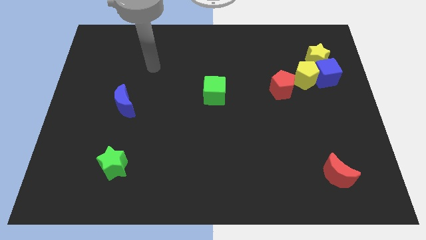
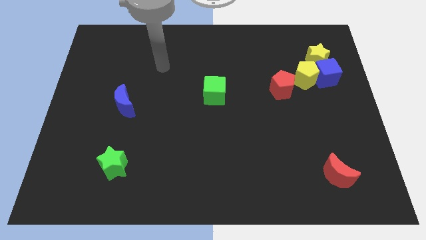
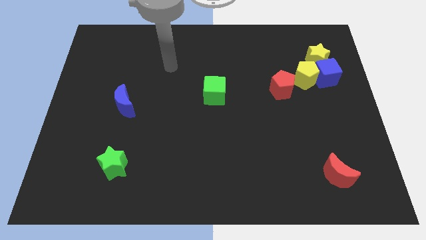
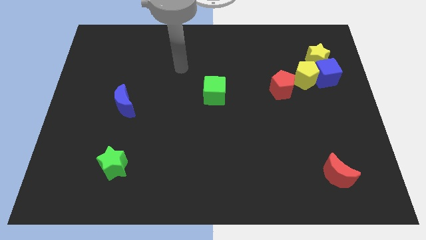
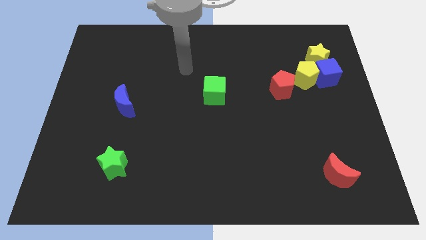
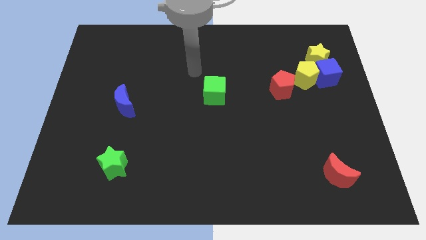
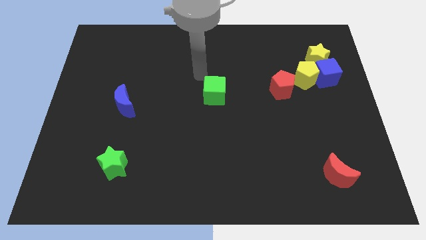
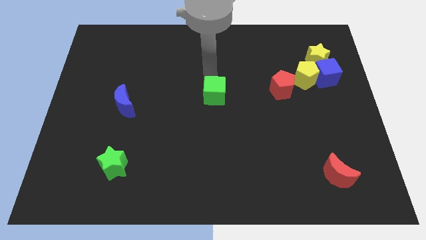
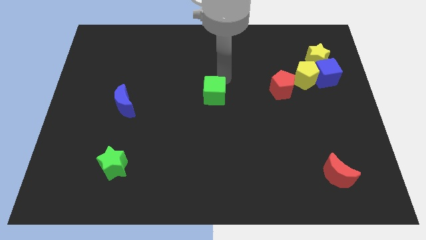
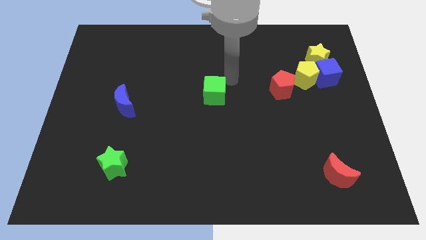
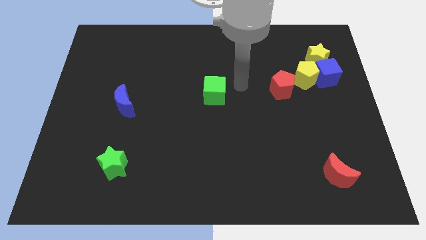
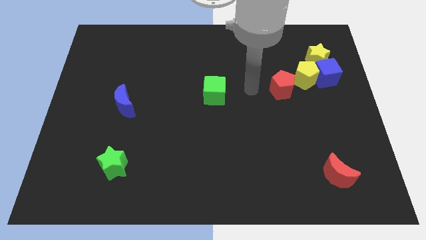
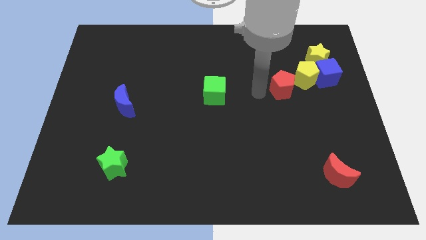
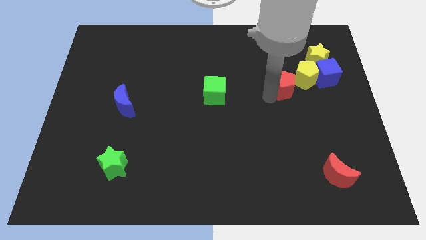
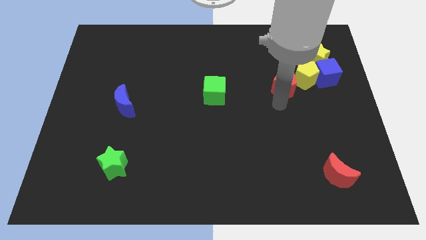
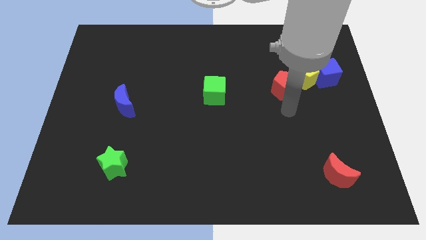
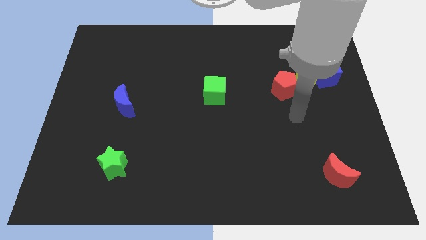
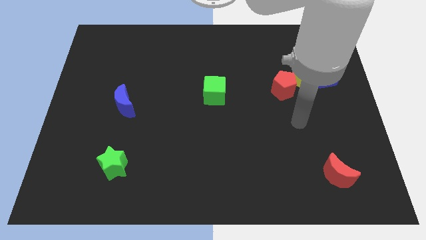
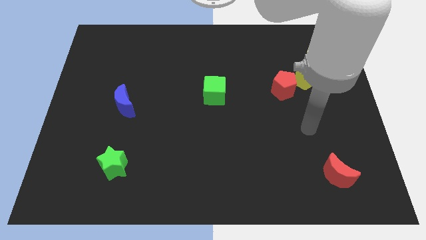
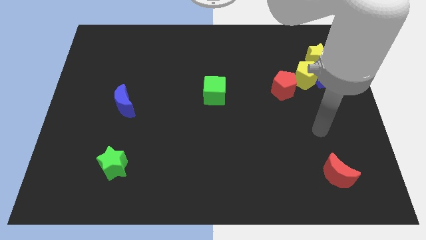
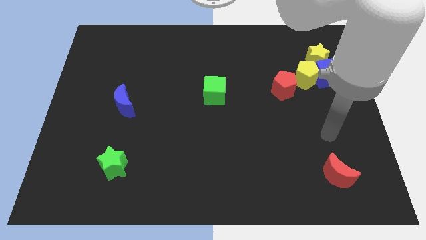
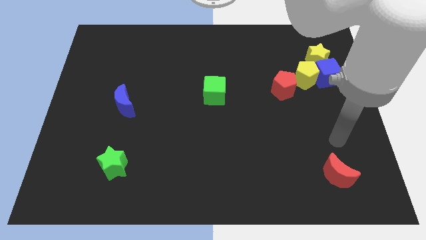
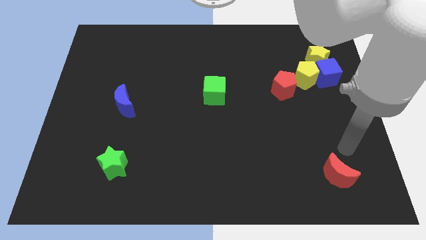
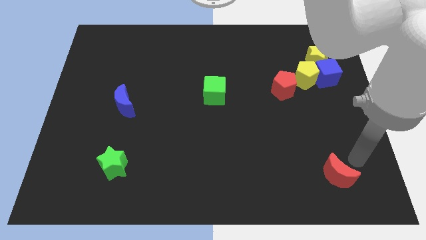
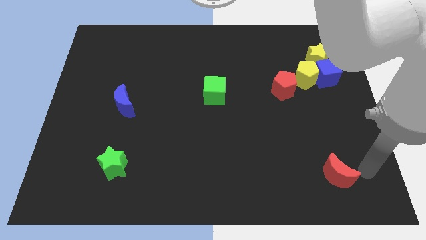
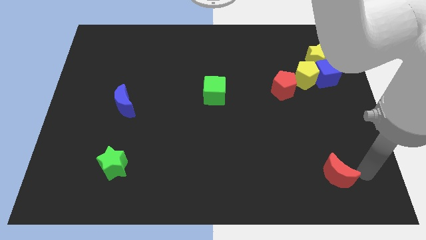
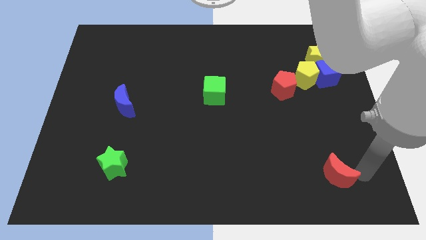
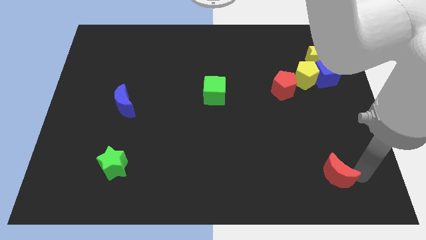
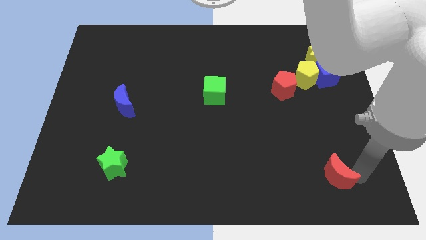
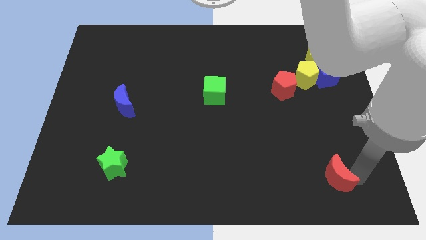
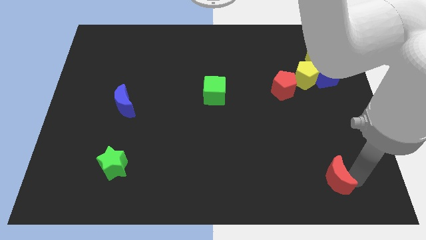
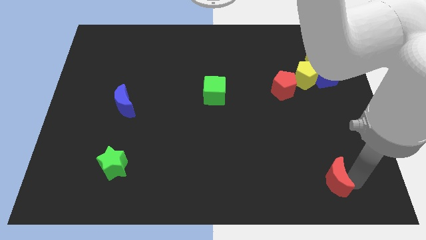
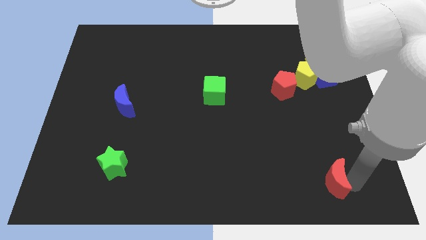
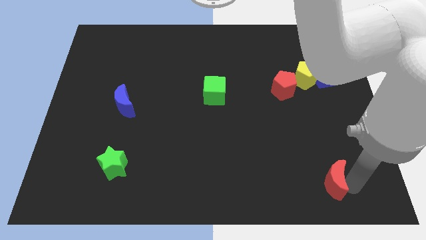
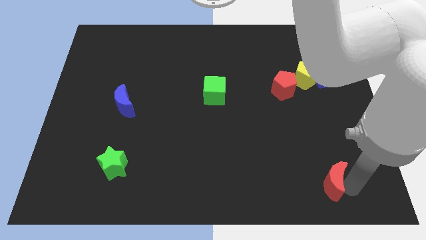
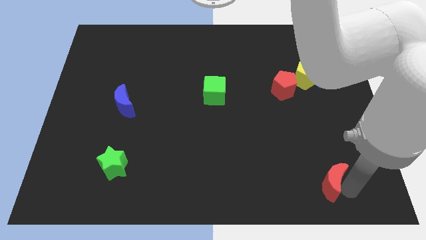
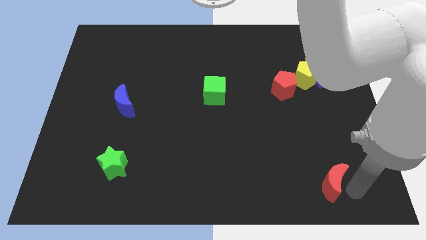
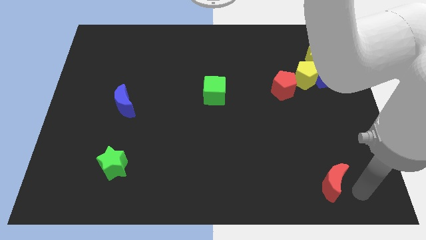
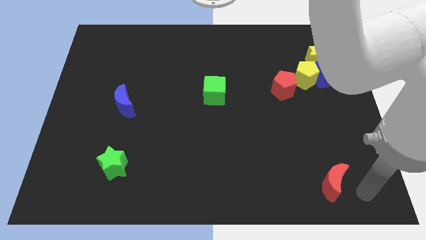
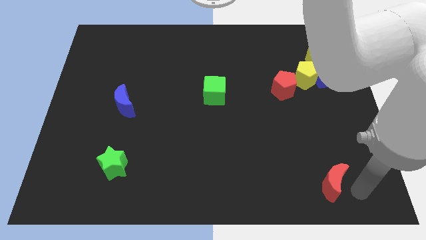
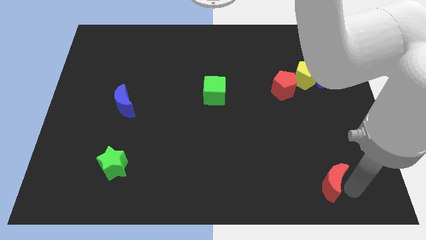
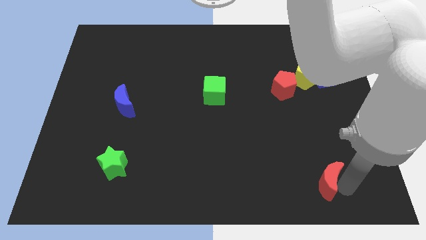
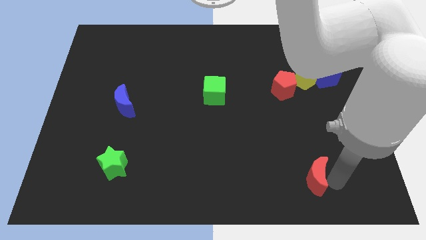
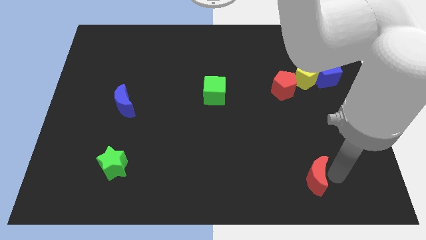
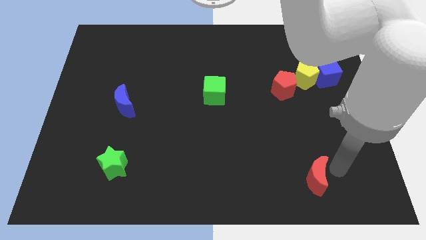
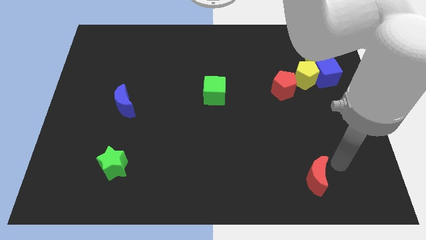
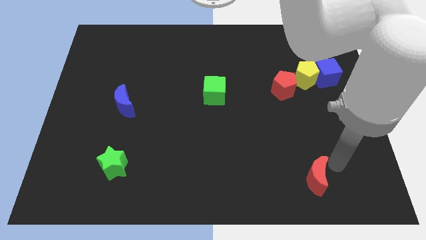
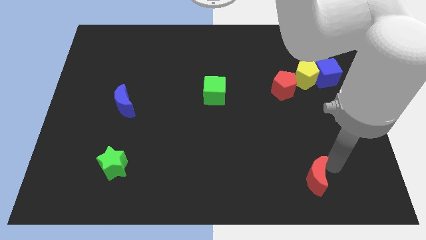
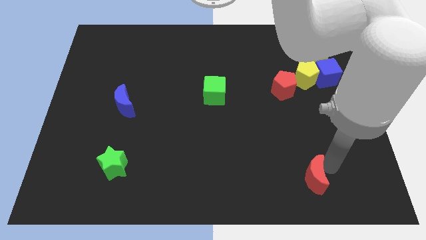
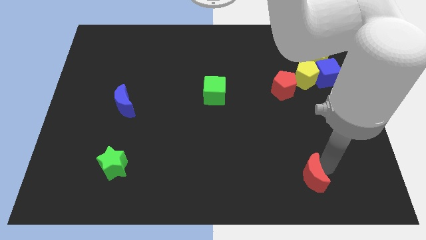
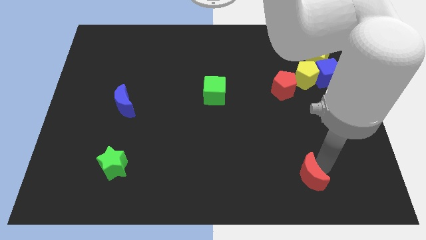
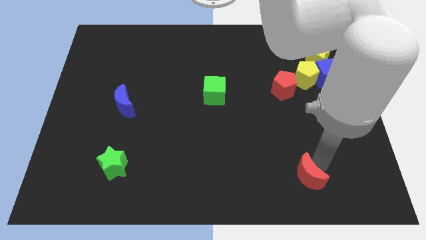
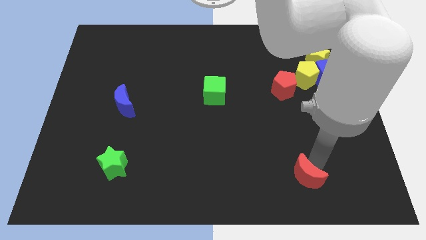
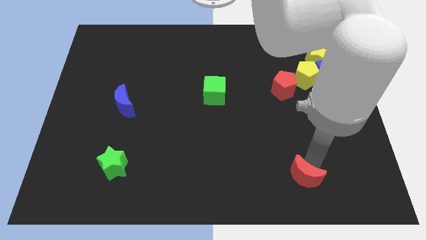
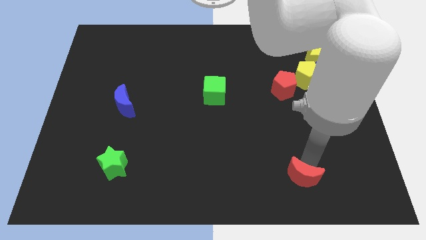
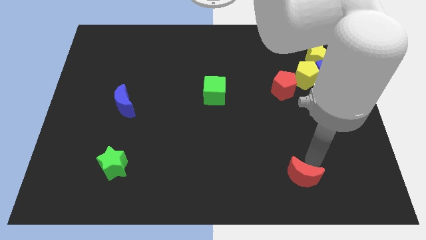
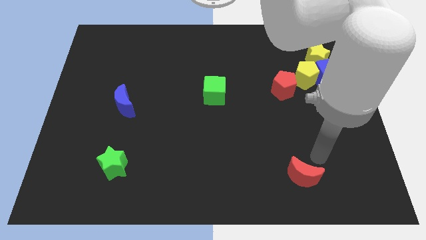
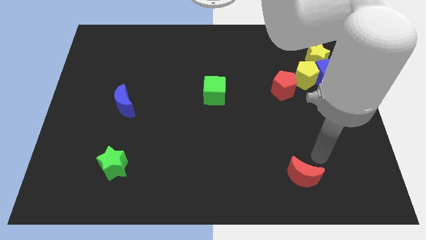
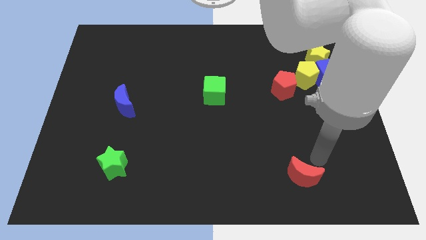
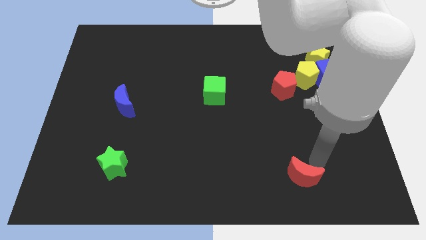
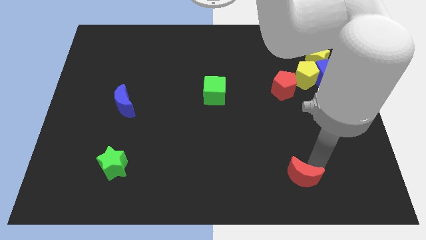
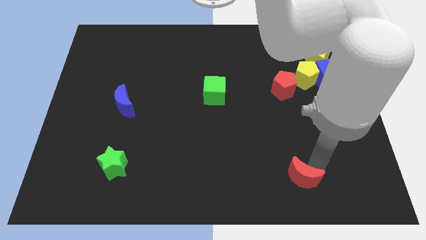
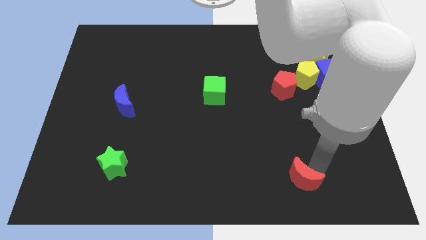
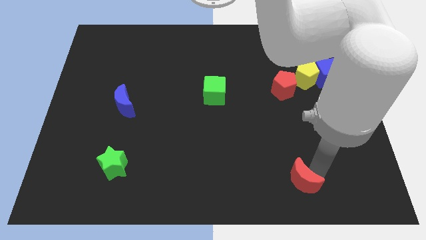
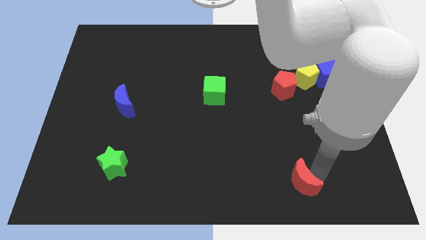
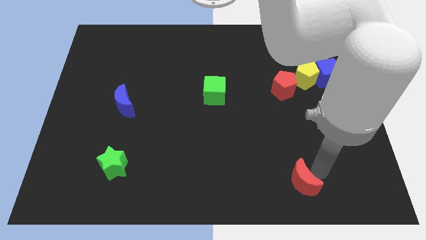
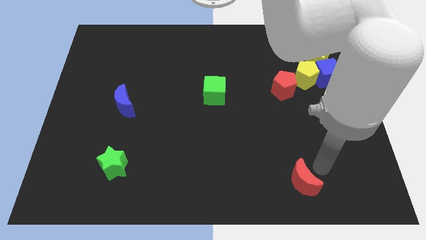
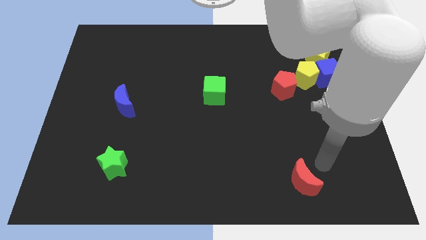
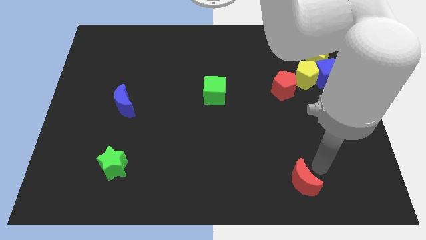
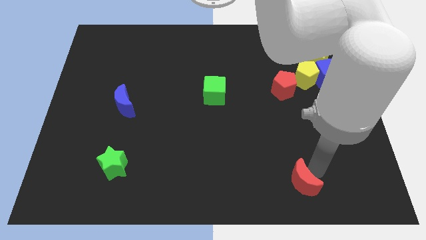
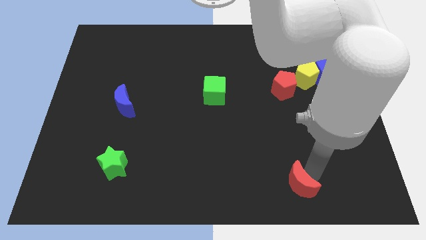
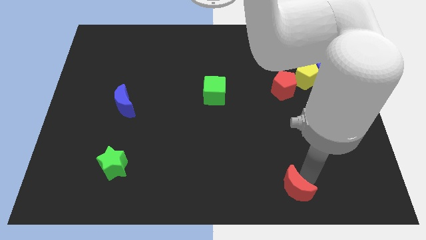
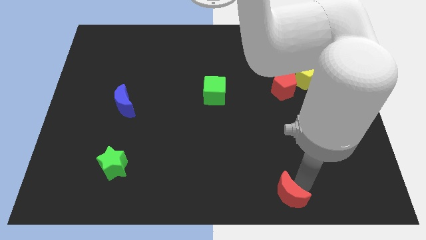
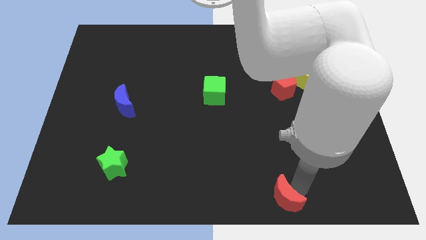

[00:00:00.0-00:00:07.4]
move the red moon to the bottom
